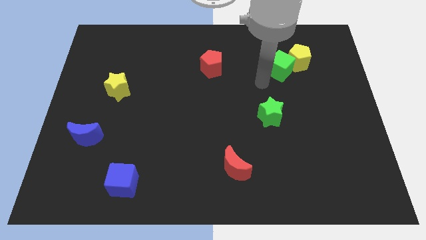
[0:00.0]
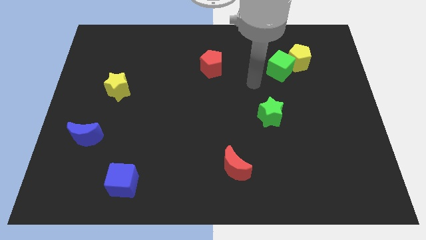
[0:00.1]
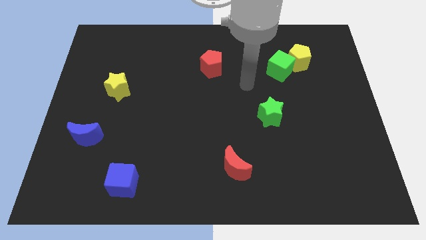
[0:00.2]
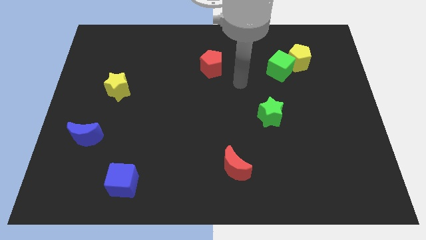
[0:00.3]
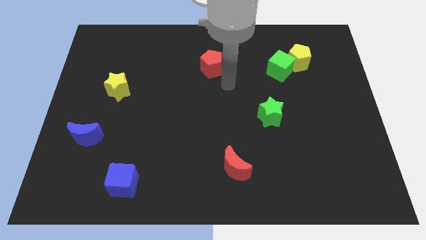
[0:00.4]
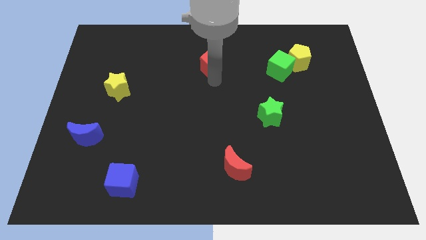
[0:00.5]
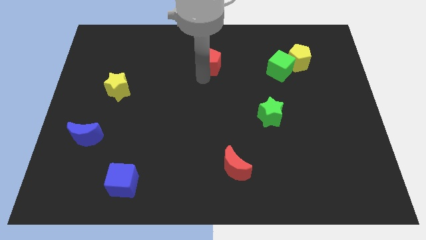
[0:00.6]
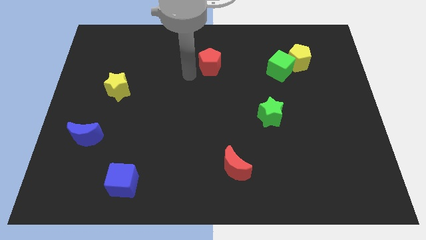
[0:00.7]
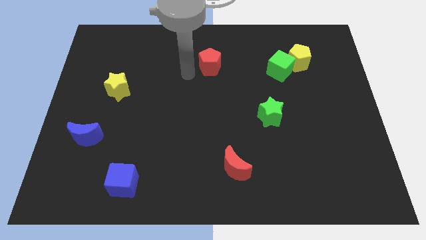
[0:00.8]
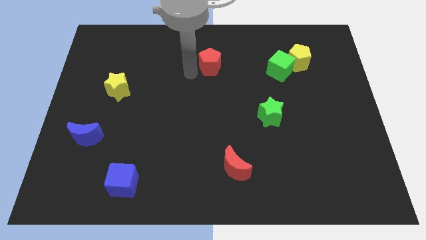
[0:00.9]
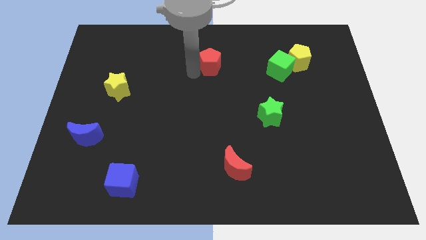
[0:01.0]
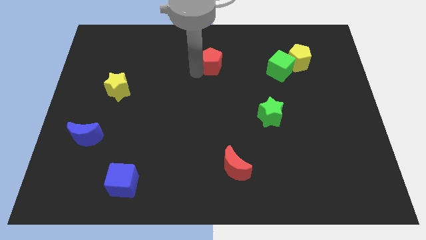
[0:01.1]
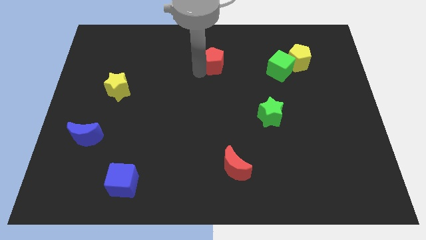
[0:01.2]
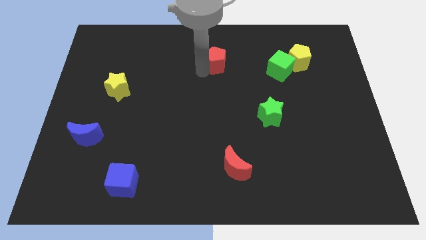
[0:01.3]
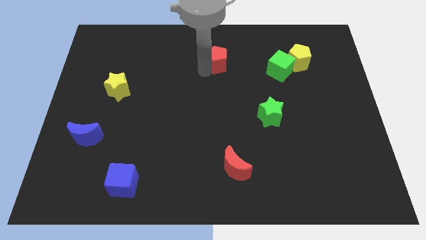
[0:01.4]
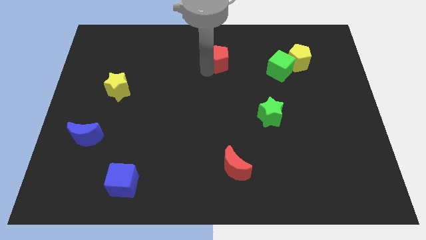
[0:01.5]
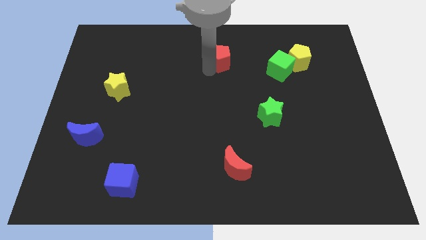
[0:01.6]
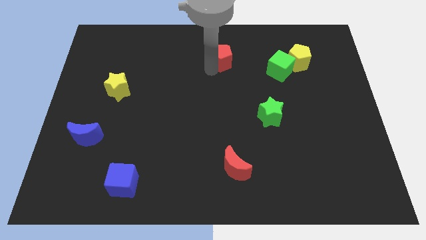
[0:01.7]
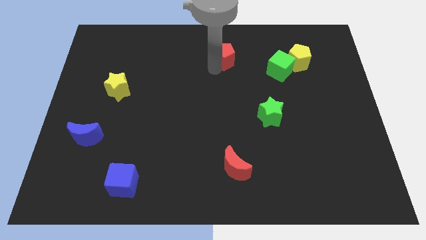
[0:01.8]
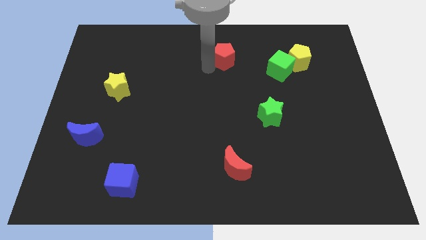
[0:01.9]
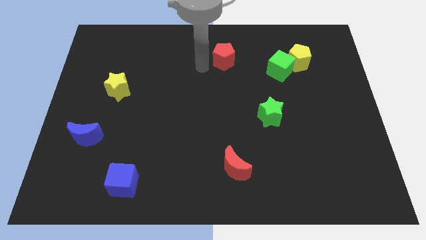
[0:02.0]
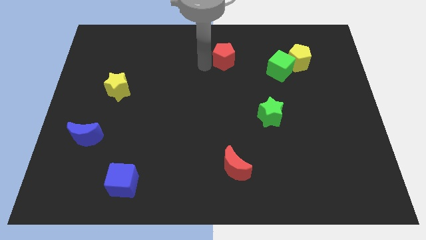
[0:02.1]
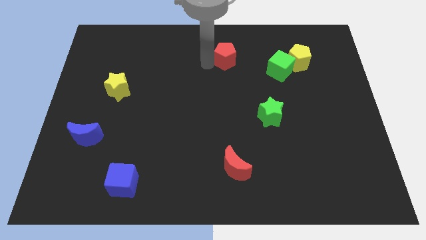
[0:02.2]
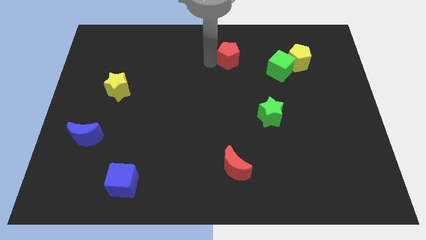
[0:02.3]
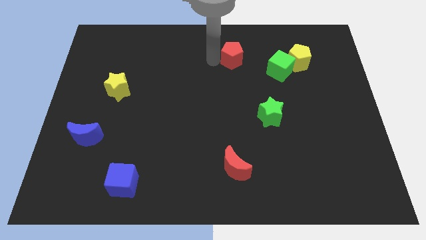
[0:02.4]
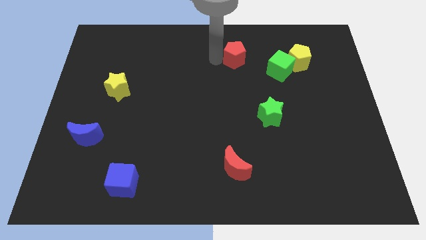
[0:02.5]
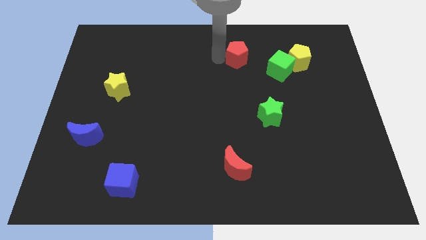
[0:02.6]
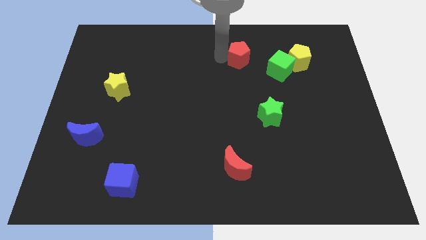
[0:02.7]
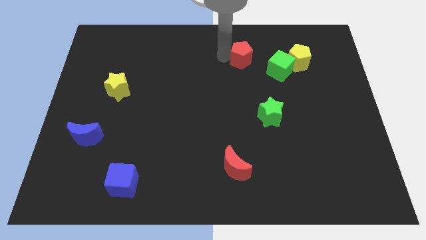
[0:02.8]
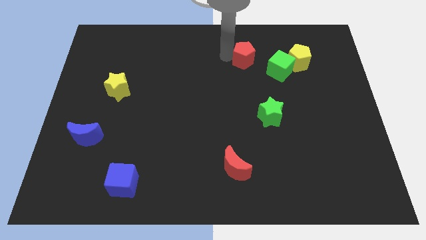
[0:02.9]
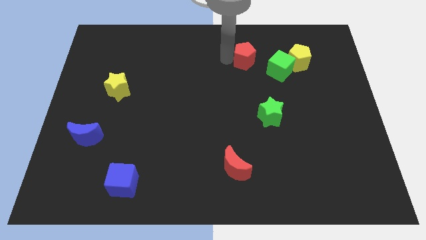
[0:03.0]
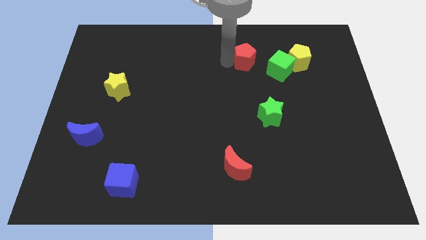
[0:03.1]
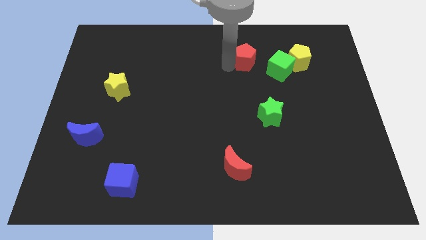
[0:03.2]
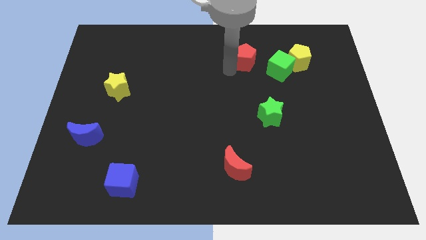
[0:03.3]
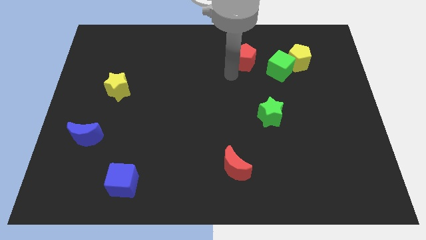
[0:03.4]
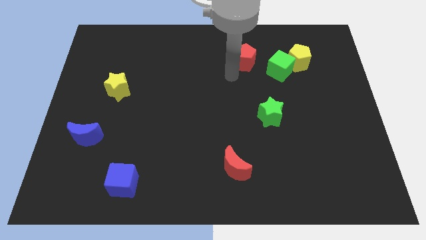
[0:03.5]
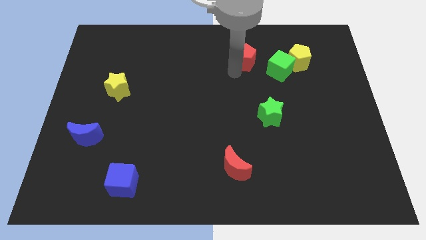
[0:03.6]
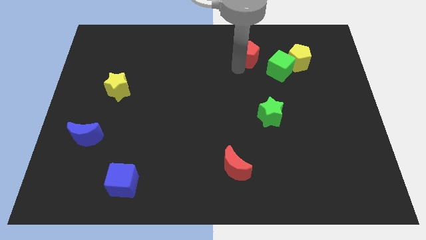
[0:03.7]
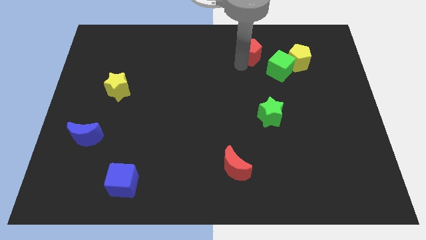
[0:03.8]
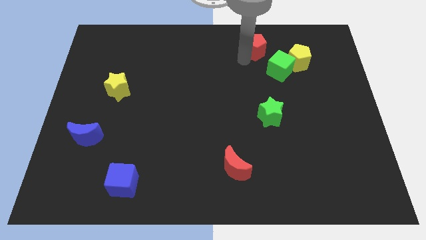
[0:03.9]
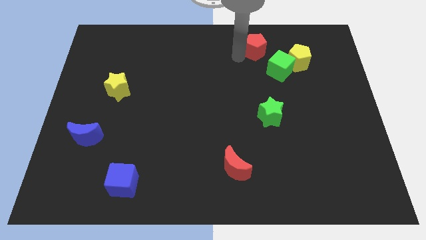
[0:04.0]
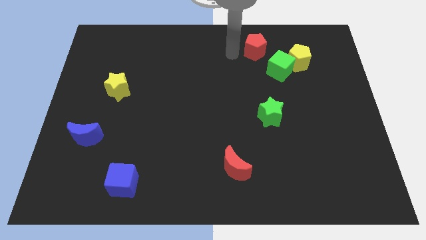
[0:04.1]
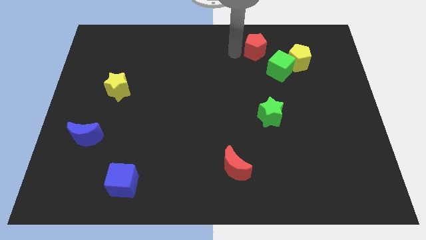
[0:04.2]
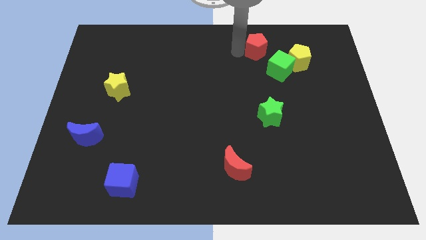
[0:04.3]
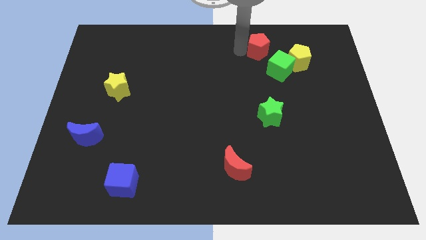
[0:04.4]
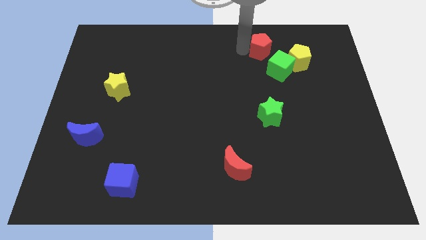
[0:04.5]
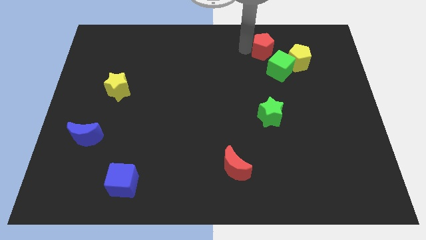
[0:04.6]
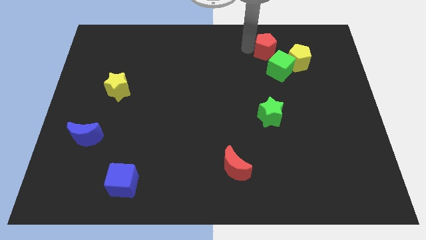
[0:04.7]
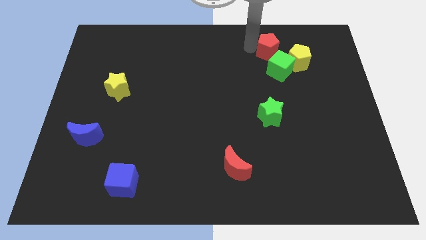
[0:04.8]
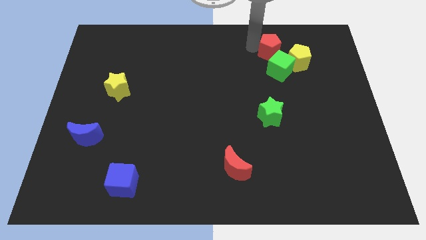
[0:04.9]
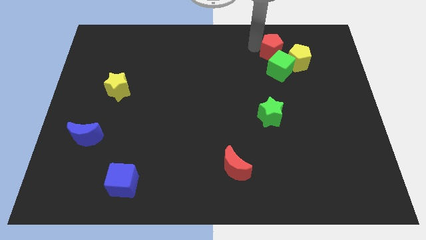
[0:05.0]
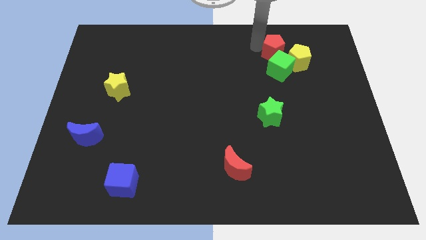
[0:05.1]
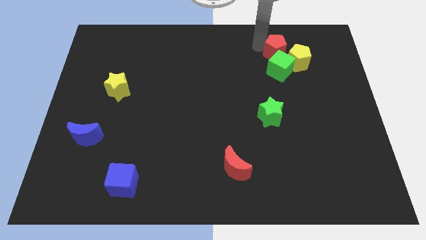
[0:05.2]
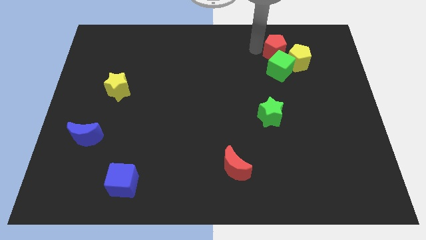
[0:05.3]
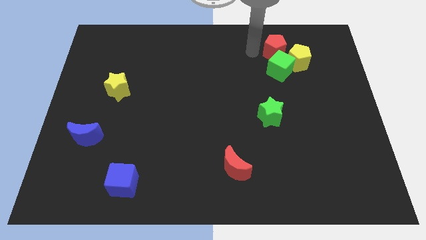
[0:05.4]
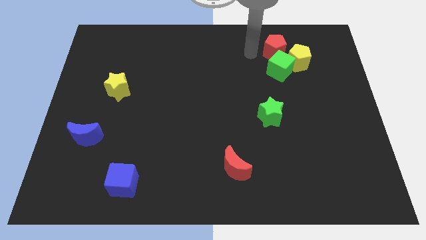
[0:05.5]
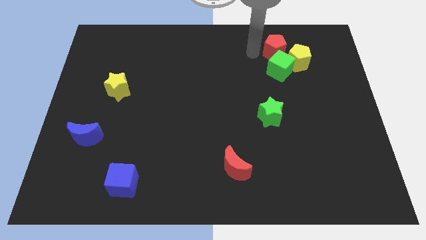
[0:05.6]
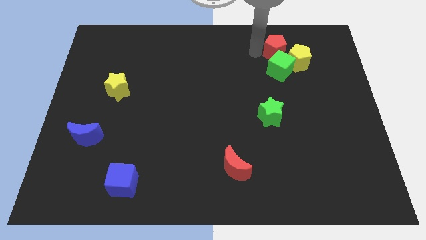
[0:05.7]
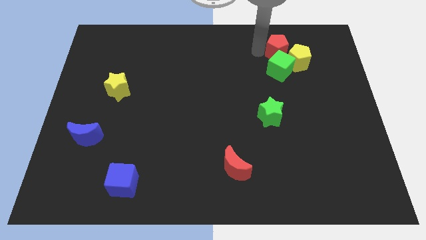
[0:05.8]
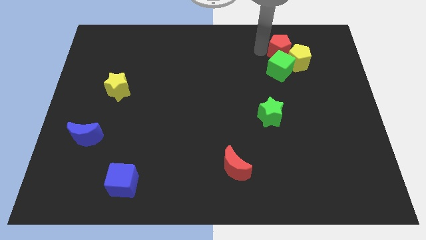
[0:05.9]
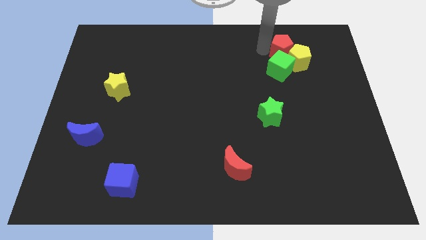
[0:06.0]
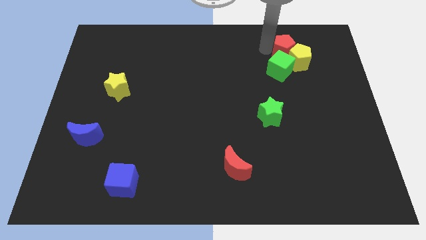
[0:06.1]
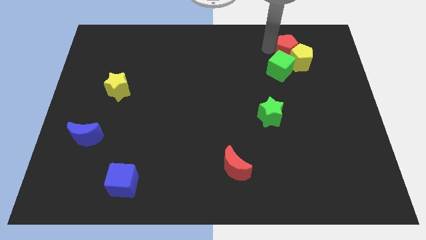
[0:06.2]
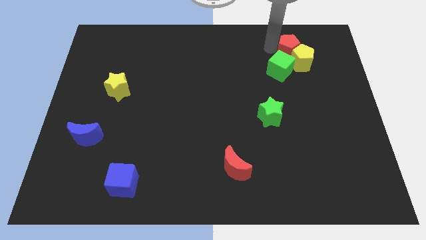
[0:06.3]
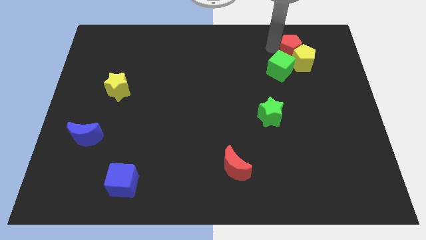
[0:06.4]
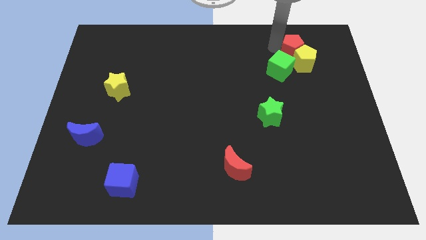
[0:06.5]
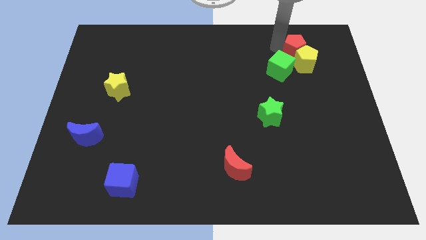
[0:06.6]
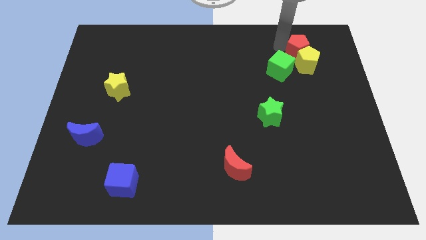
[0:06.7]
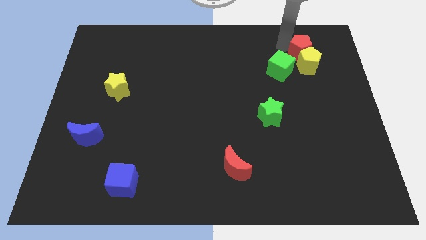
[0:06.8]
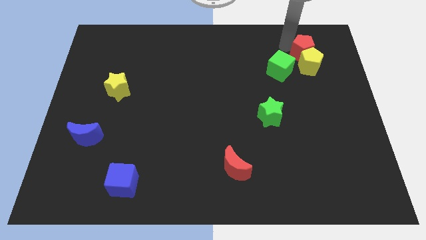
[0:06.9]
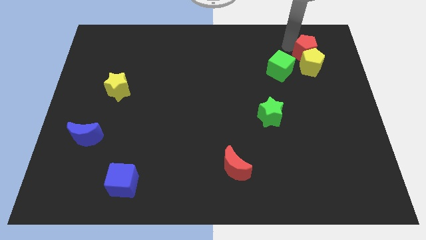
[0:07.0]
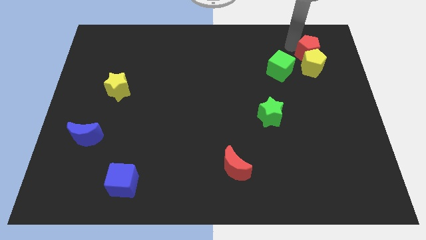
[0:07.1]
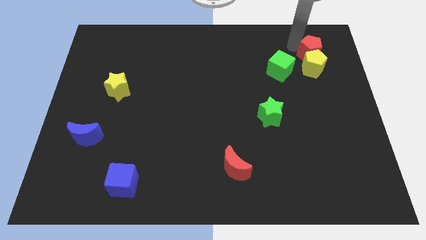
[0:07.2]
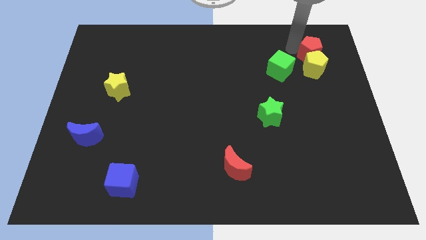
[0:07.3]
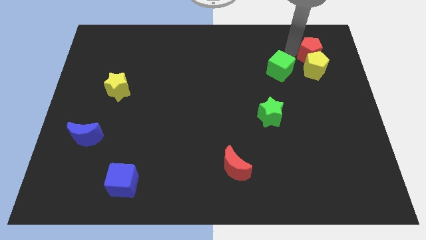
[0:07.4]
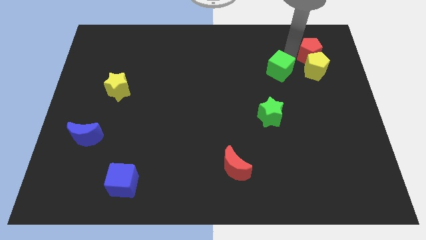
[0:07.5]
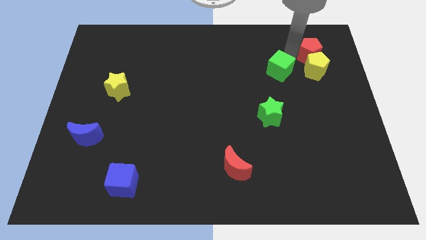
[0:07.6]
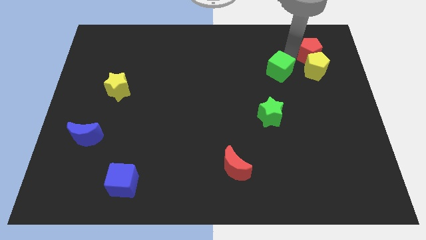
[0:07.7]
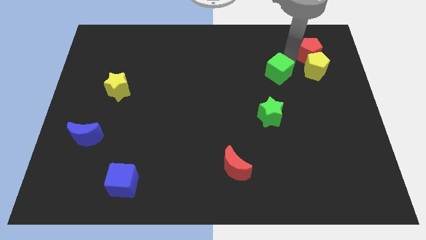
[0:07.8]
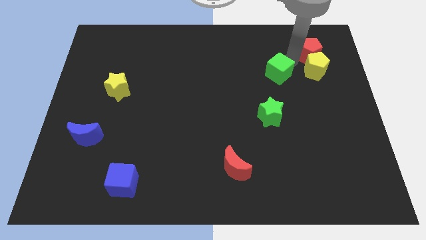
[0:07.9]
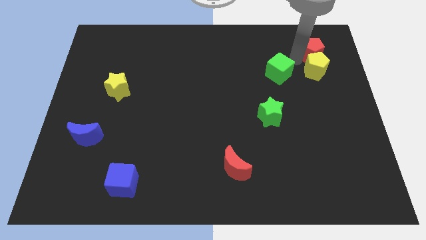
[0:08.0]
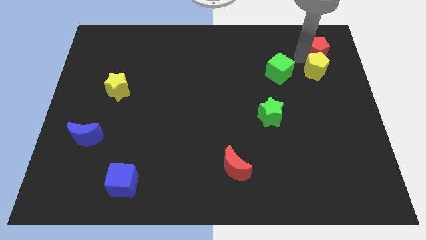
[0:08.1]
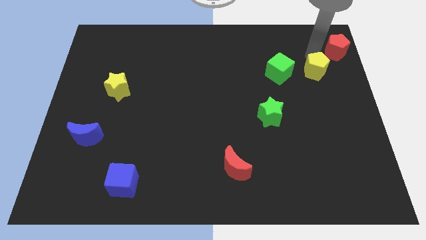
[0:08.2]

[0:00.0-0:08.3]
move the red pentagon to the top right corner
